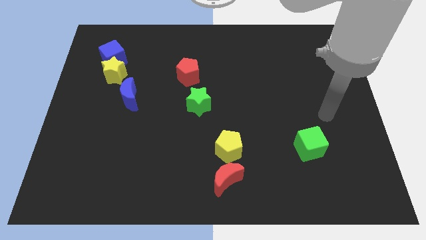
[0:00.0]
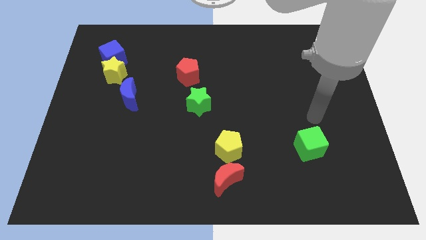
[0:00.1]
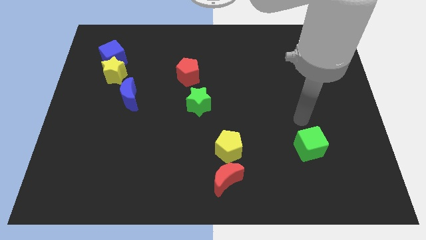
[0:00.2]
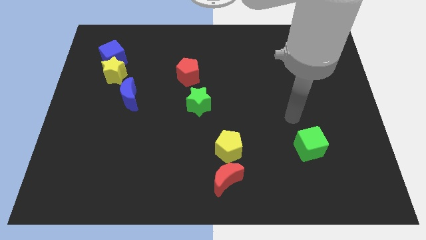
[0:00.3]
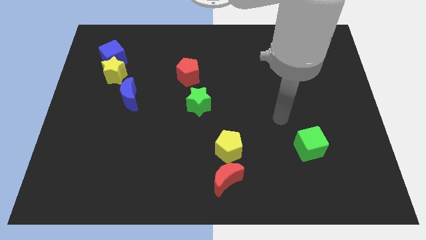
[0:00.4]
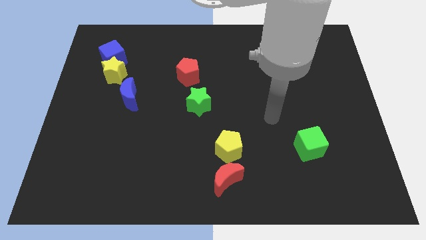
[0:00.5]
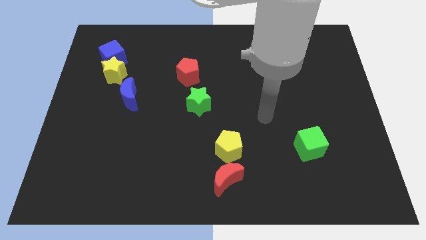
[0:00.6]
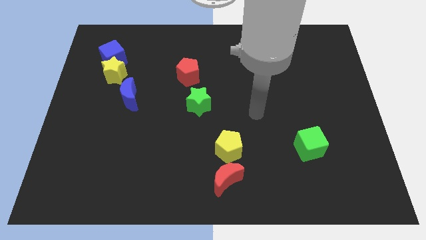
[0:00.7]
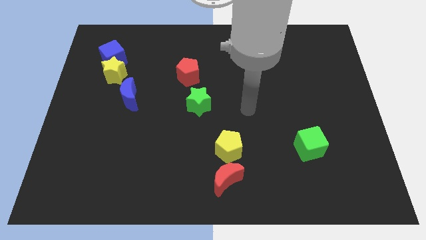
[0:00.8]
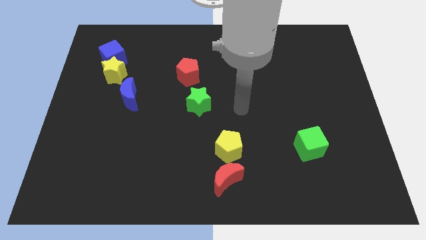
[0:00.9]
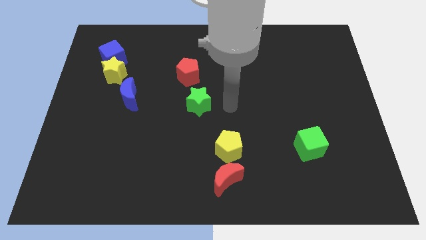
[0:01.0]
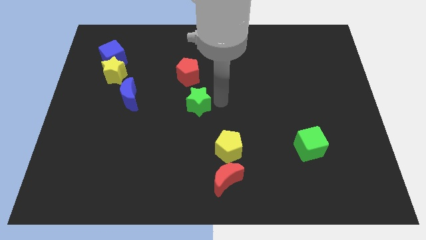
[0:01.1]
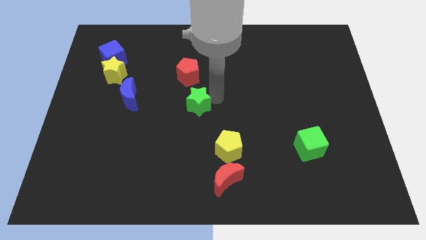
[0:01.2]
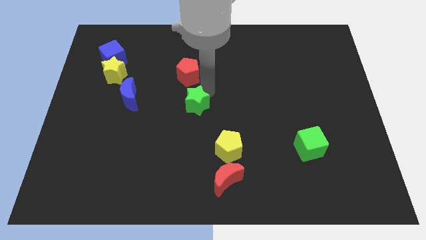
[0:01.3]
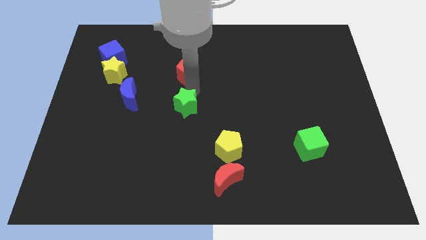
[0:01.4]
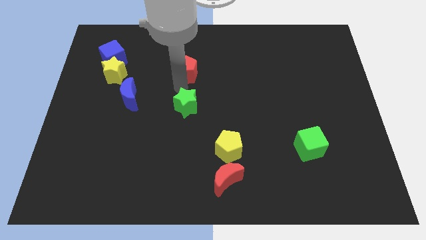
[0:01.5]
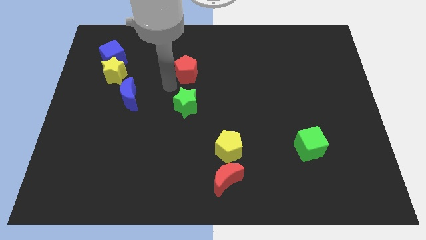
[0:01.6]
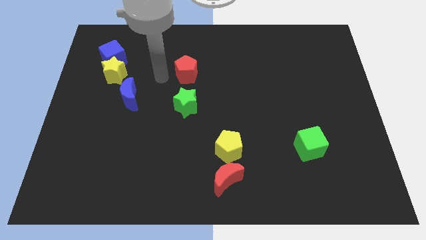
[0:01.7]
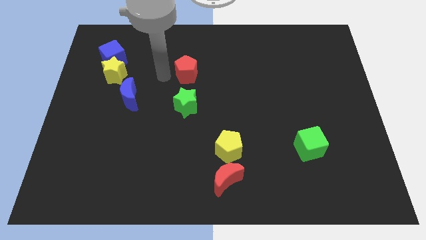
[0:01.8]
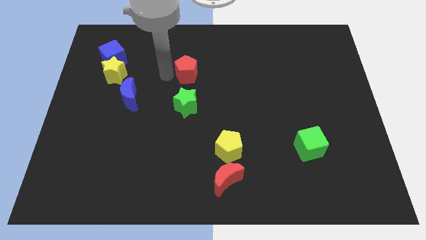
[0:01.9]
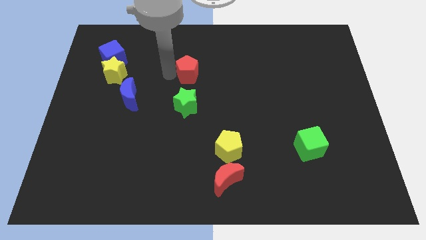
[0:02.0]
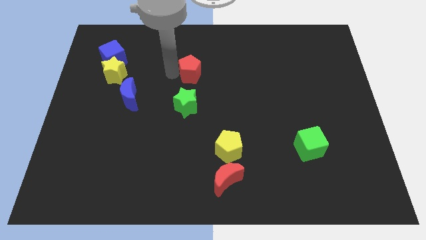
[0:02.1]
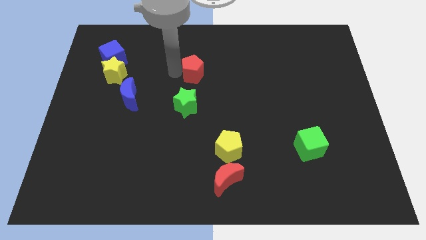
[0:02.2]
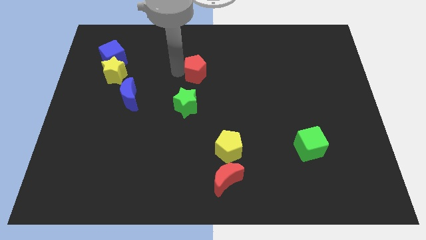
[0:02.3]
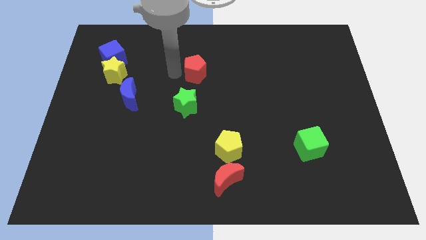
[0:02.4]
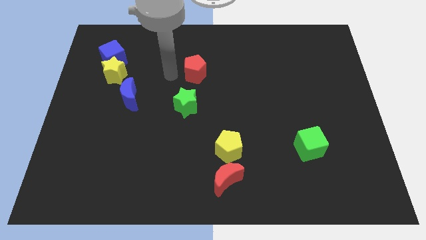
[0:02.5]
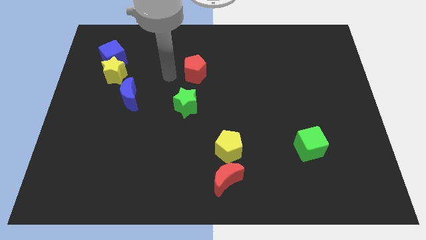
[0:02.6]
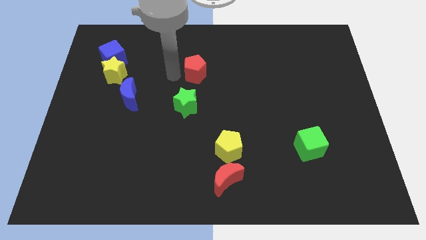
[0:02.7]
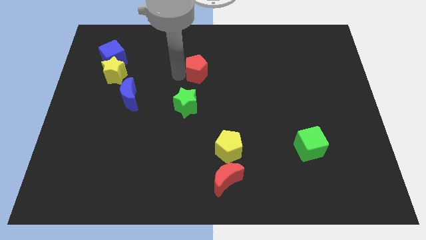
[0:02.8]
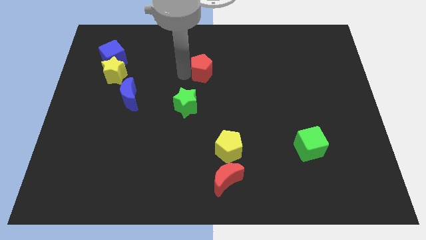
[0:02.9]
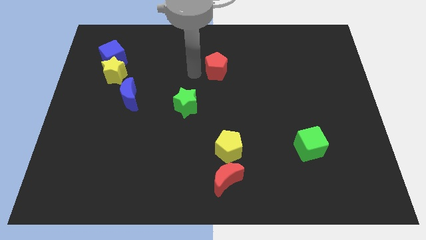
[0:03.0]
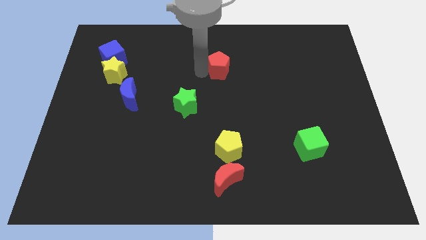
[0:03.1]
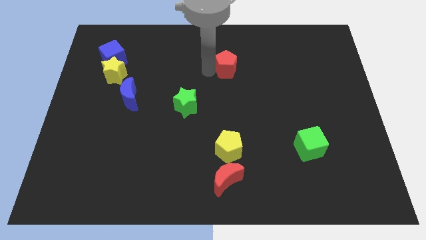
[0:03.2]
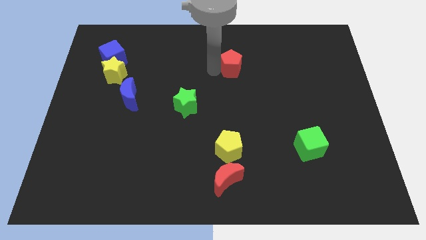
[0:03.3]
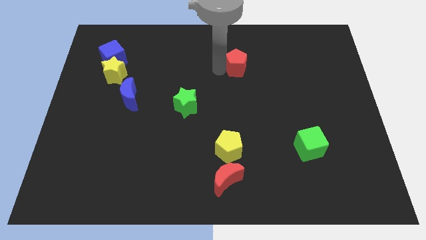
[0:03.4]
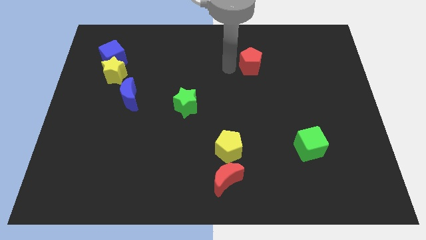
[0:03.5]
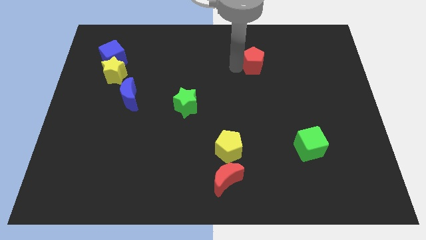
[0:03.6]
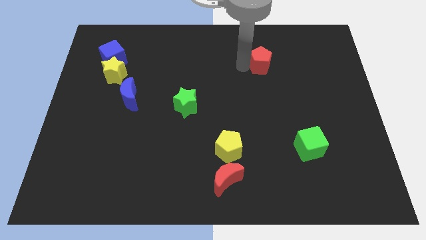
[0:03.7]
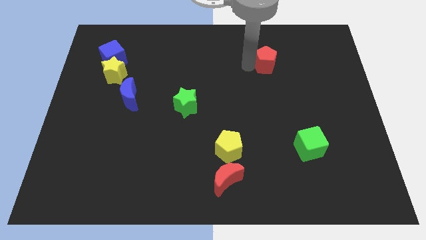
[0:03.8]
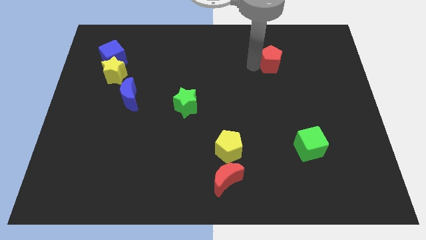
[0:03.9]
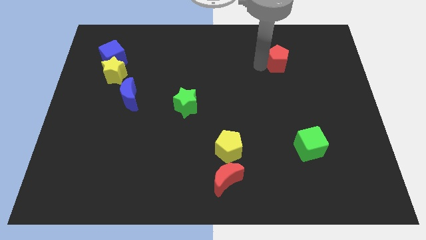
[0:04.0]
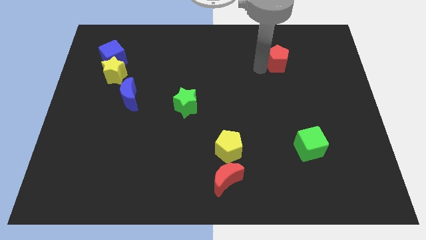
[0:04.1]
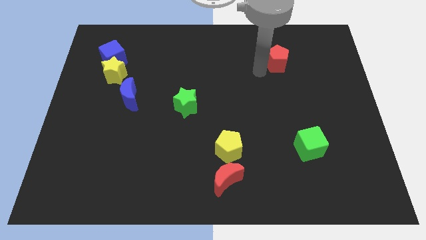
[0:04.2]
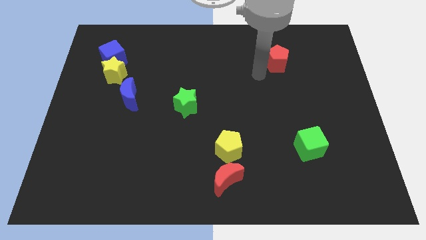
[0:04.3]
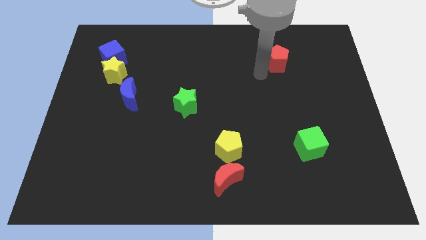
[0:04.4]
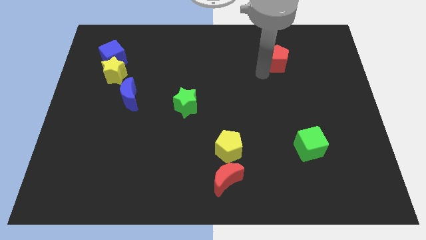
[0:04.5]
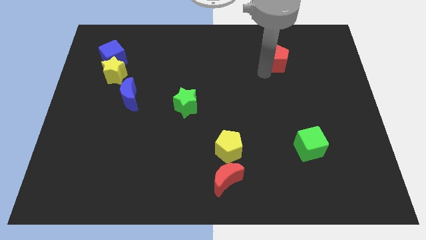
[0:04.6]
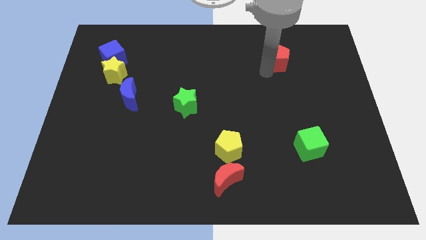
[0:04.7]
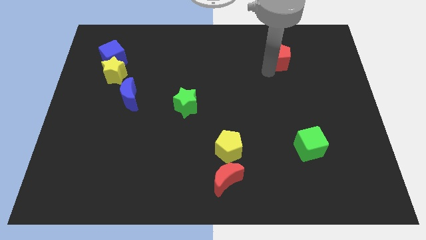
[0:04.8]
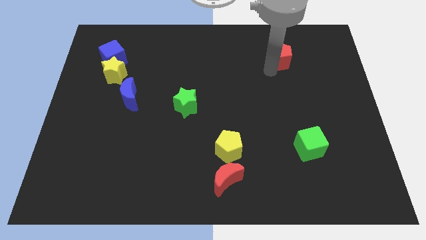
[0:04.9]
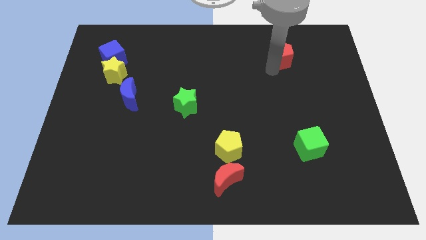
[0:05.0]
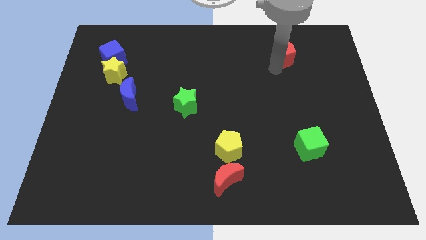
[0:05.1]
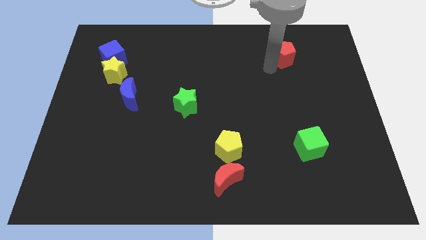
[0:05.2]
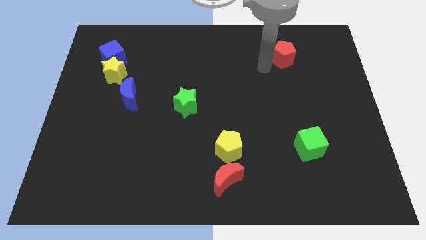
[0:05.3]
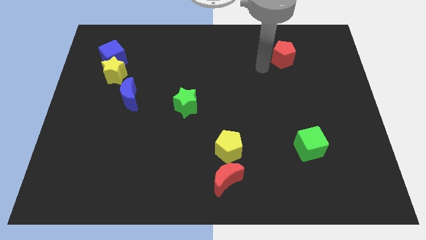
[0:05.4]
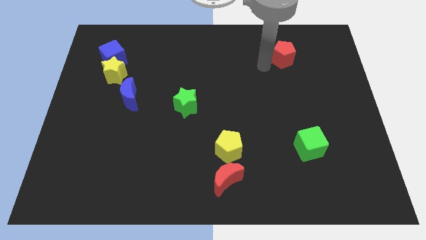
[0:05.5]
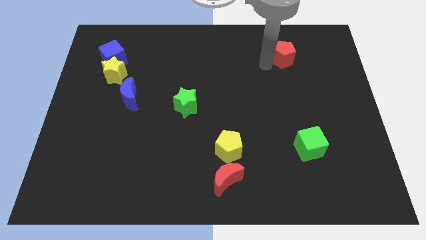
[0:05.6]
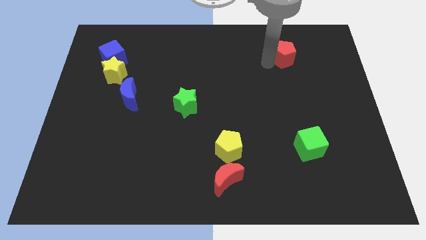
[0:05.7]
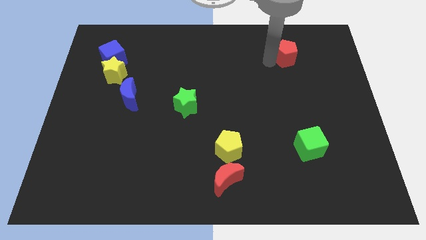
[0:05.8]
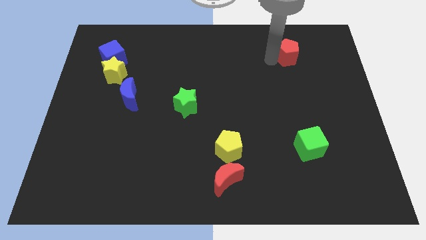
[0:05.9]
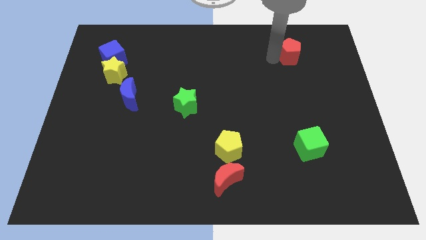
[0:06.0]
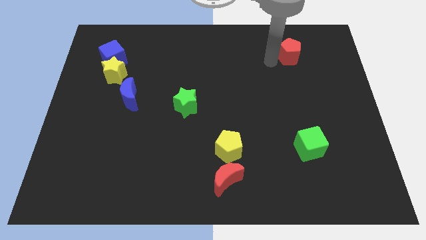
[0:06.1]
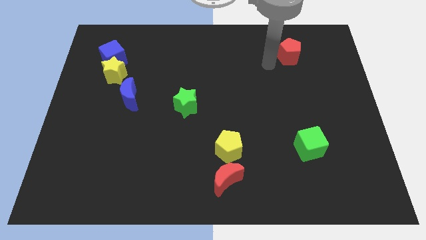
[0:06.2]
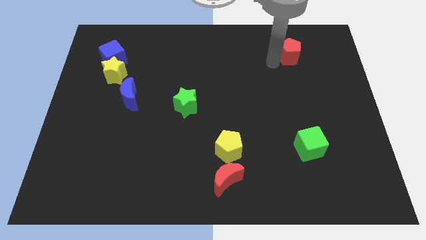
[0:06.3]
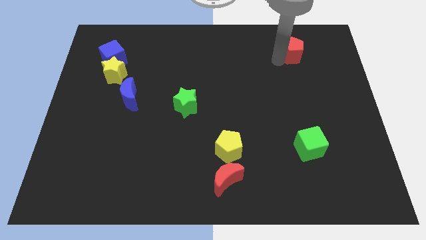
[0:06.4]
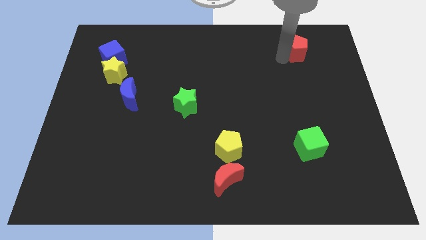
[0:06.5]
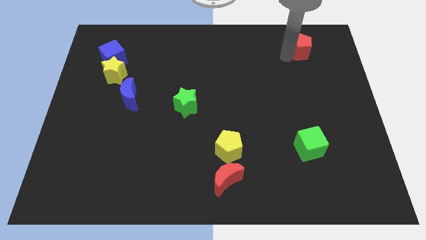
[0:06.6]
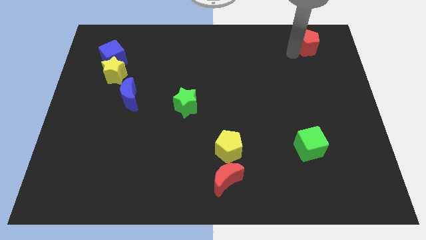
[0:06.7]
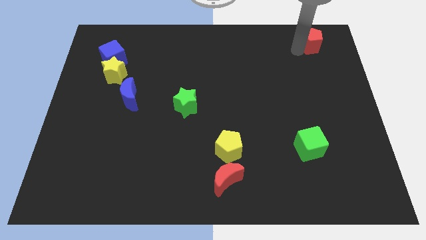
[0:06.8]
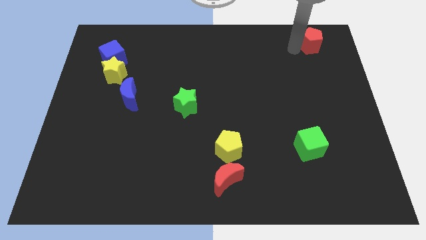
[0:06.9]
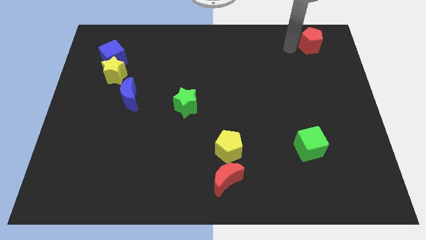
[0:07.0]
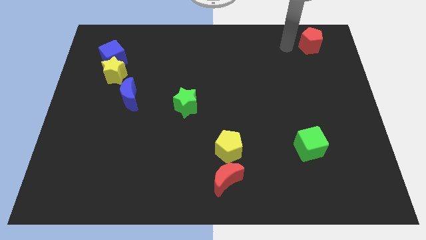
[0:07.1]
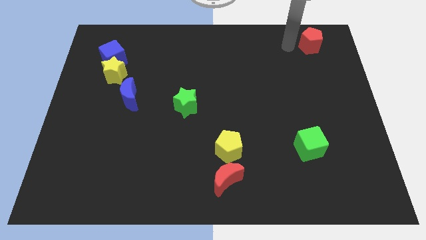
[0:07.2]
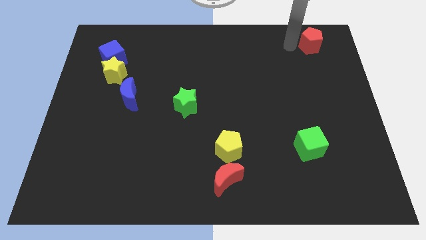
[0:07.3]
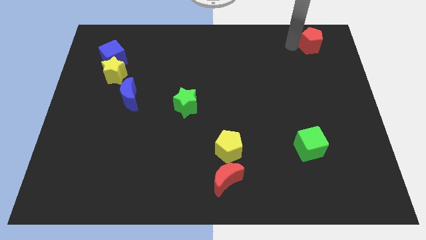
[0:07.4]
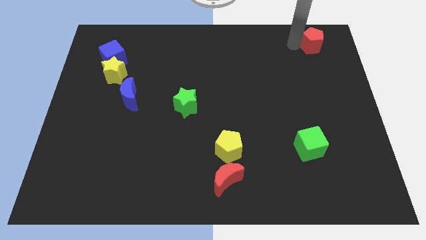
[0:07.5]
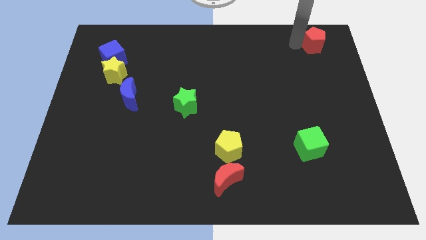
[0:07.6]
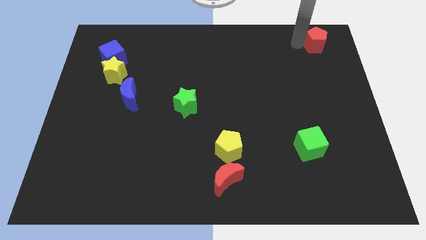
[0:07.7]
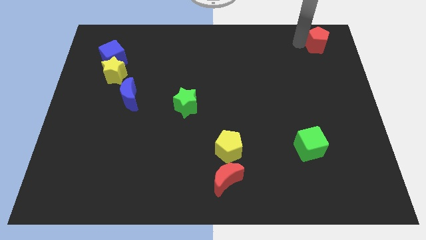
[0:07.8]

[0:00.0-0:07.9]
move the red pentagon to the top right
